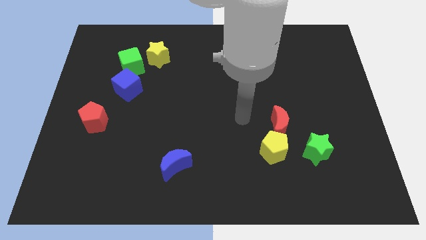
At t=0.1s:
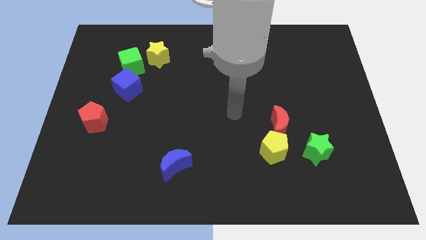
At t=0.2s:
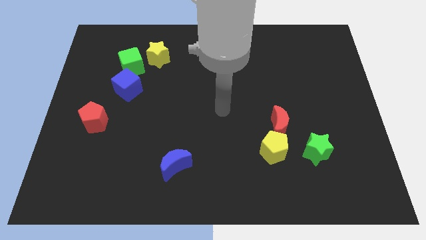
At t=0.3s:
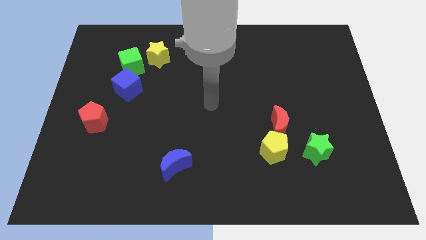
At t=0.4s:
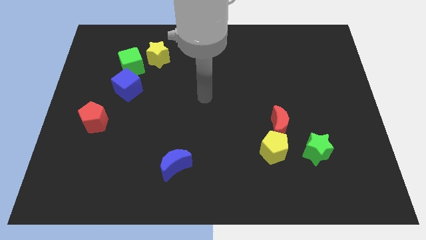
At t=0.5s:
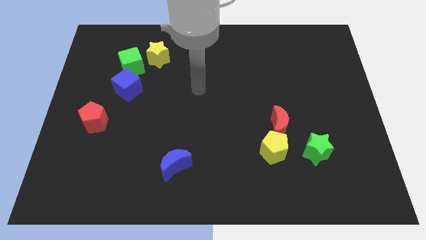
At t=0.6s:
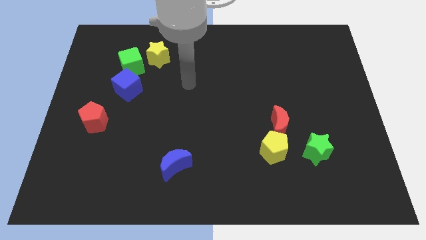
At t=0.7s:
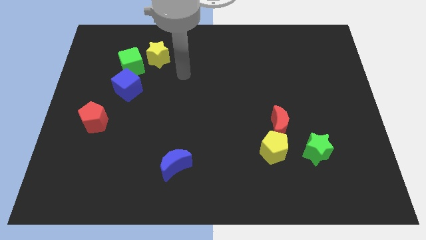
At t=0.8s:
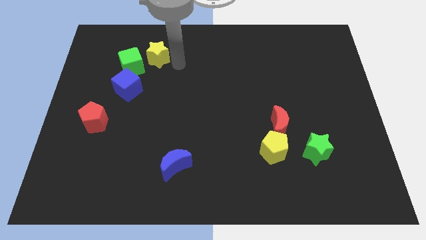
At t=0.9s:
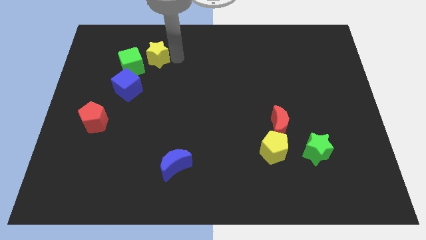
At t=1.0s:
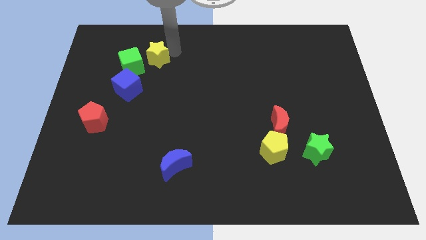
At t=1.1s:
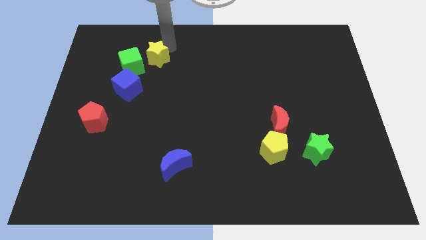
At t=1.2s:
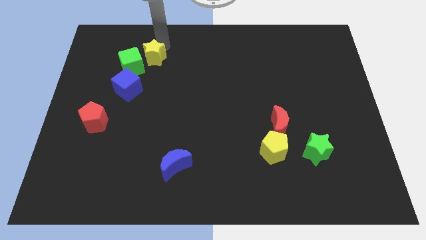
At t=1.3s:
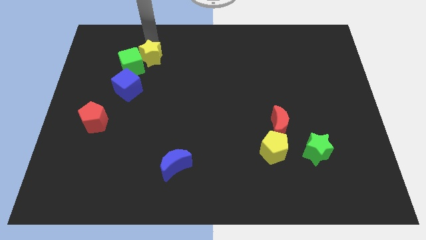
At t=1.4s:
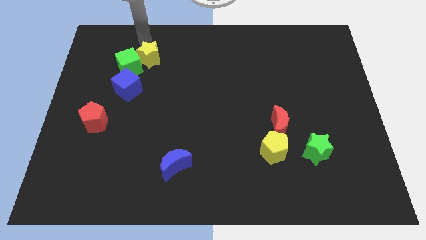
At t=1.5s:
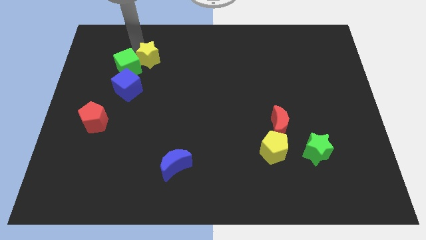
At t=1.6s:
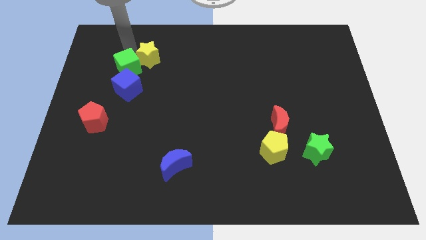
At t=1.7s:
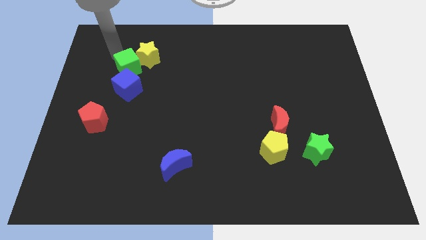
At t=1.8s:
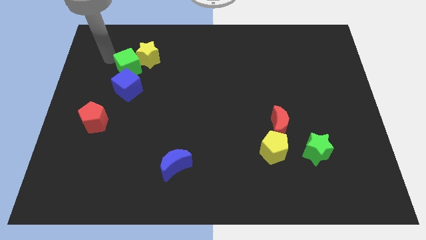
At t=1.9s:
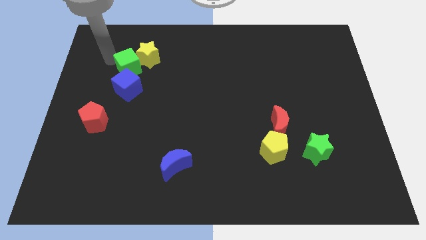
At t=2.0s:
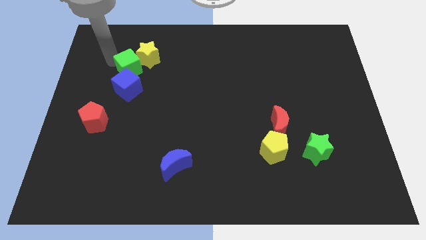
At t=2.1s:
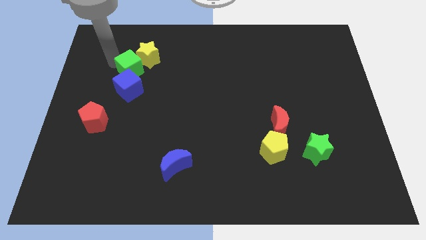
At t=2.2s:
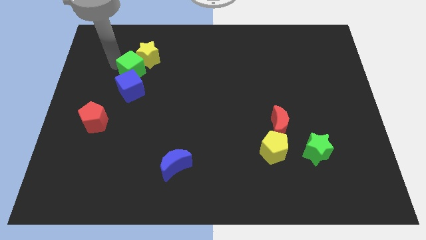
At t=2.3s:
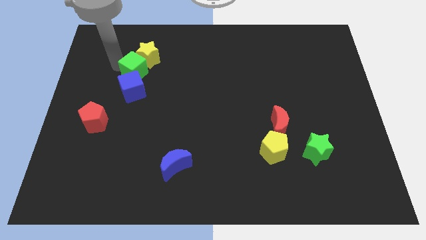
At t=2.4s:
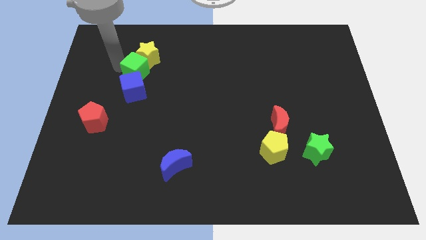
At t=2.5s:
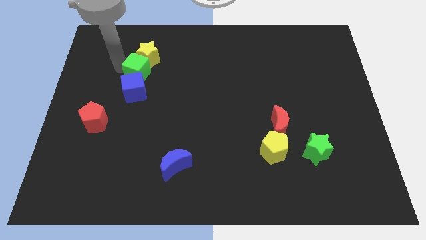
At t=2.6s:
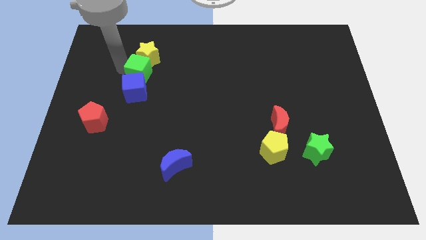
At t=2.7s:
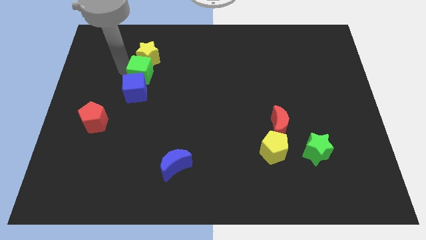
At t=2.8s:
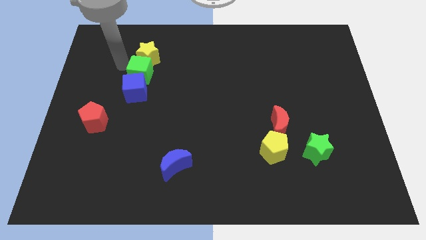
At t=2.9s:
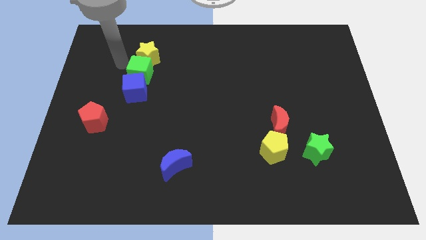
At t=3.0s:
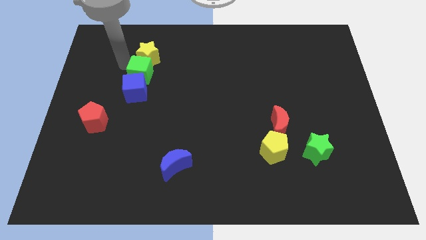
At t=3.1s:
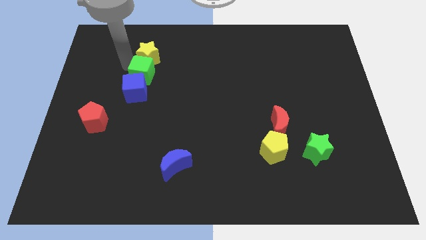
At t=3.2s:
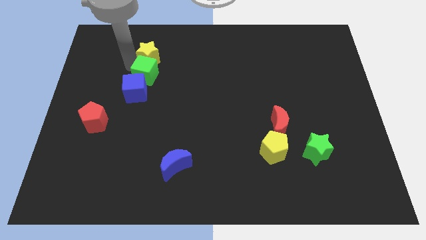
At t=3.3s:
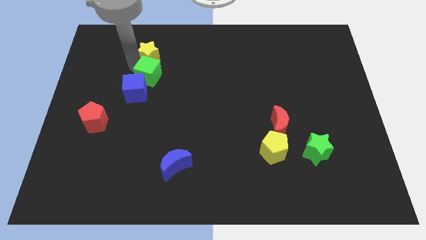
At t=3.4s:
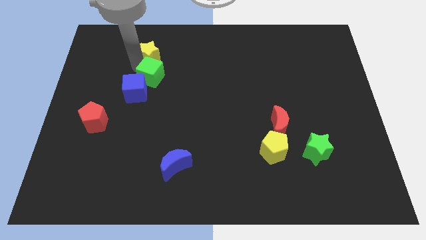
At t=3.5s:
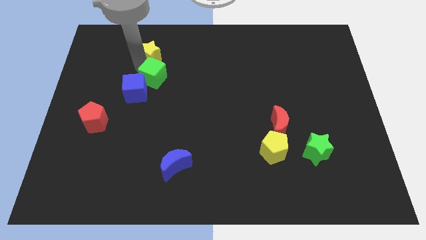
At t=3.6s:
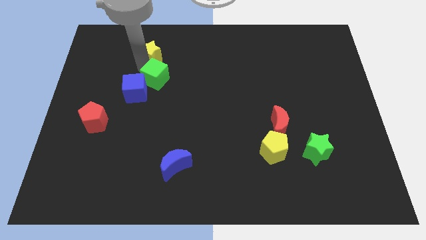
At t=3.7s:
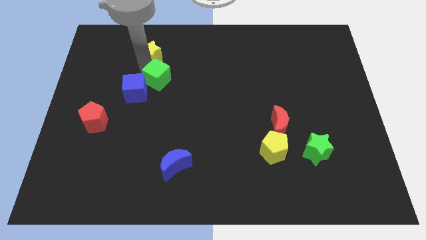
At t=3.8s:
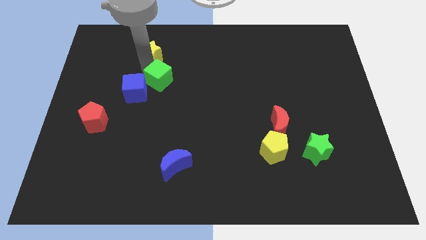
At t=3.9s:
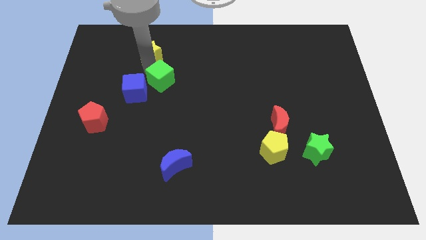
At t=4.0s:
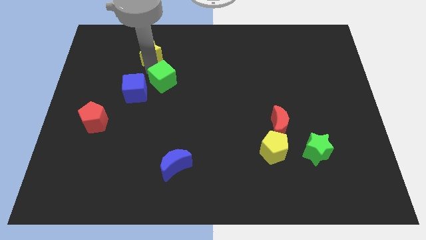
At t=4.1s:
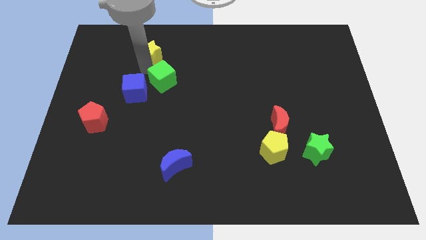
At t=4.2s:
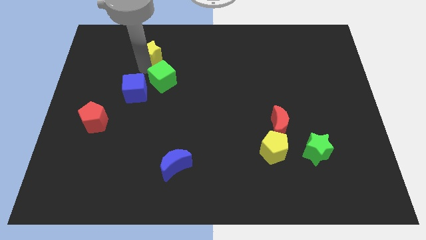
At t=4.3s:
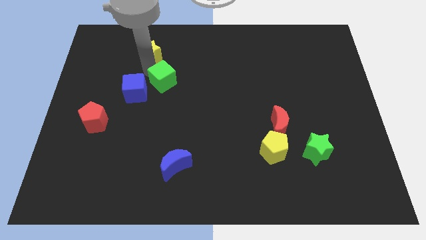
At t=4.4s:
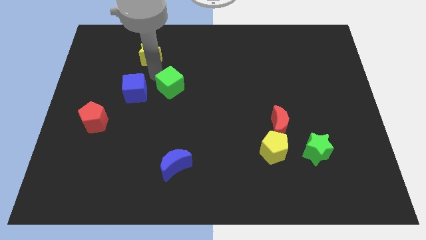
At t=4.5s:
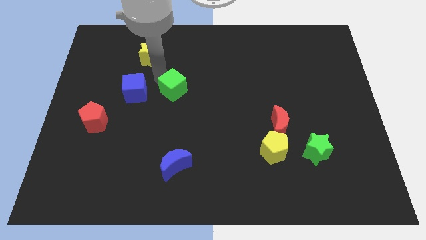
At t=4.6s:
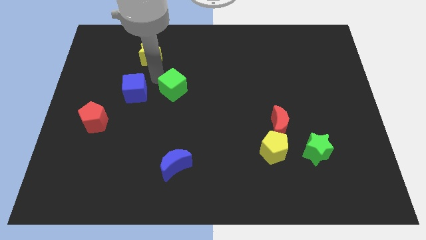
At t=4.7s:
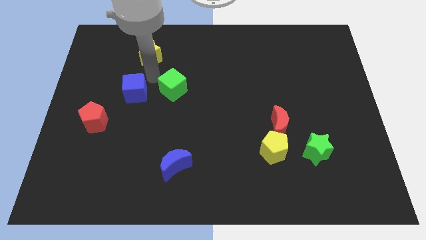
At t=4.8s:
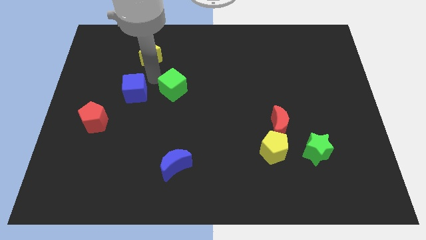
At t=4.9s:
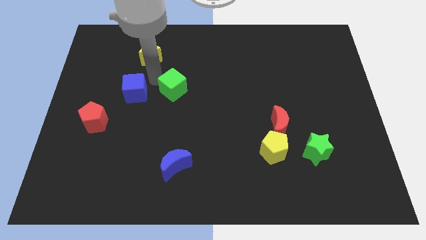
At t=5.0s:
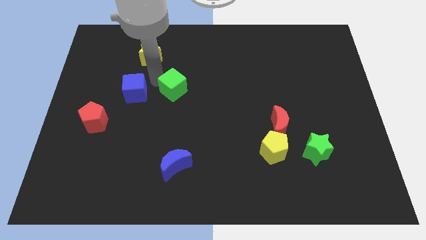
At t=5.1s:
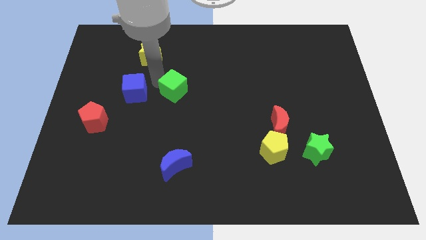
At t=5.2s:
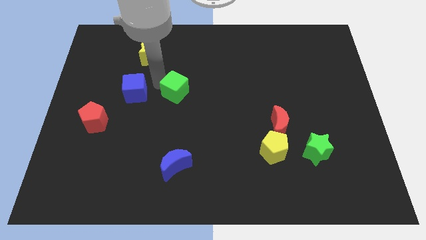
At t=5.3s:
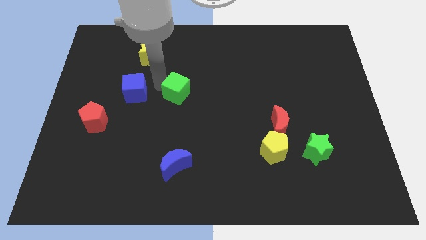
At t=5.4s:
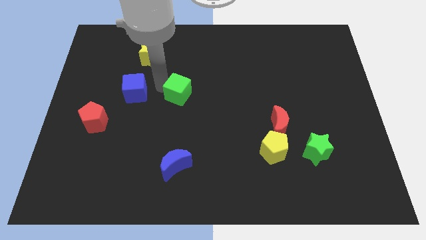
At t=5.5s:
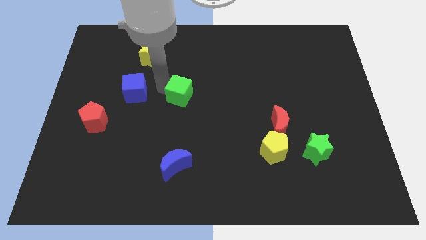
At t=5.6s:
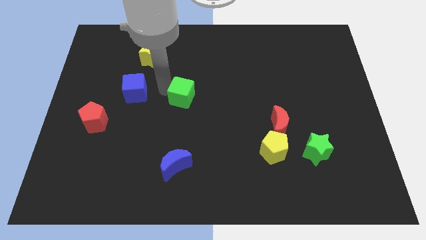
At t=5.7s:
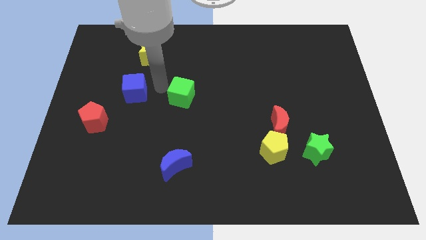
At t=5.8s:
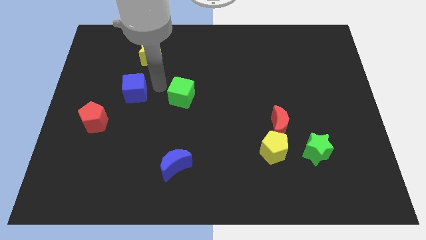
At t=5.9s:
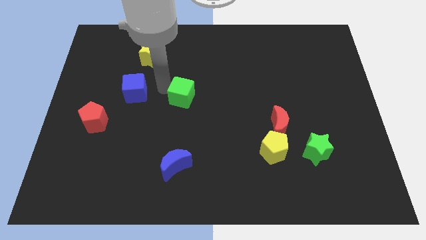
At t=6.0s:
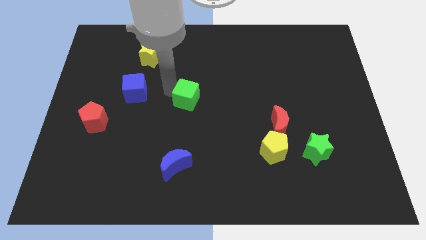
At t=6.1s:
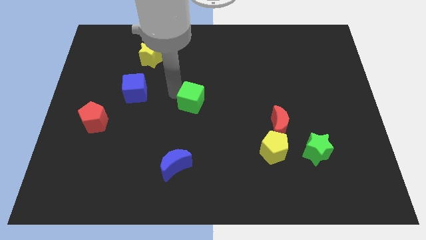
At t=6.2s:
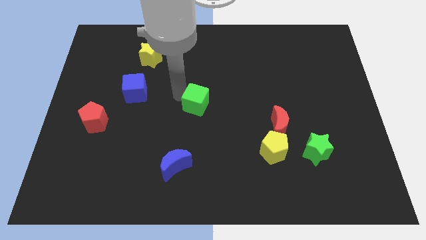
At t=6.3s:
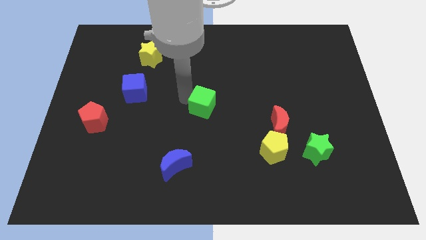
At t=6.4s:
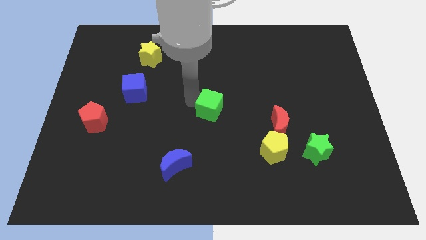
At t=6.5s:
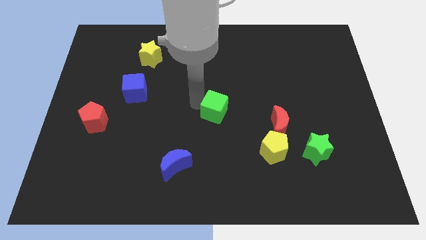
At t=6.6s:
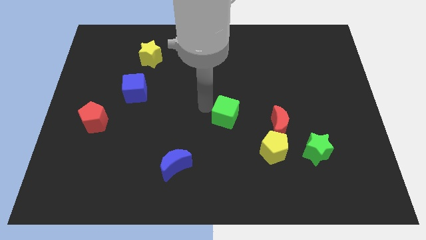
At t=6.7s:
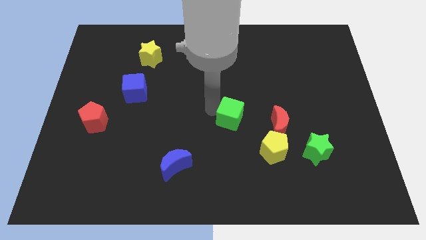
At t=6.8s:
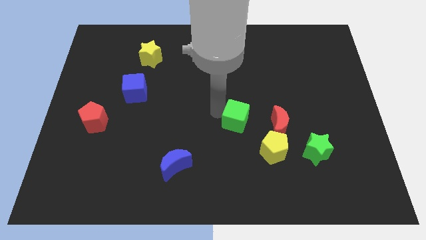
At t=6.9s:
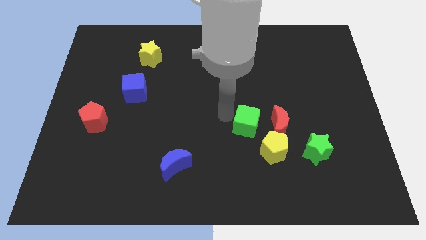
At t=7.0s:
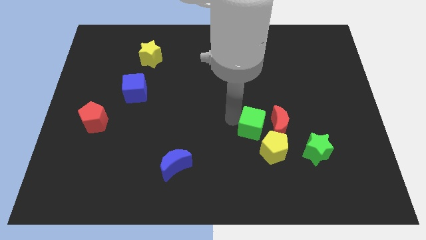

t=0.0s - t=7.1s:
slide the green cube close to the red moon

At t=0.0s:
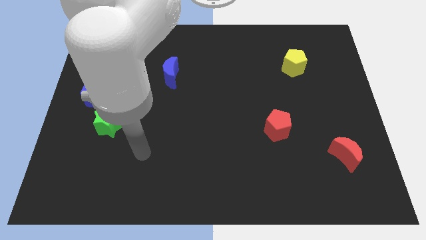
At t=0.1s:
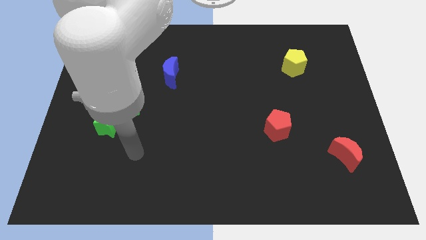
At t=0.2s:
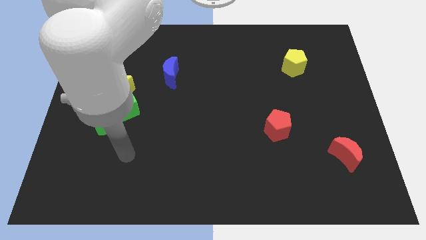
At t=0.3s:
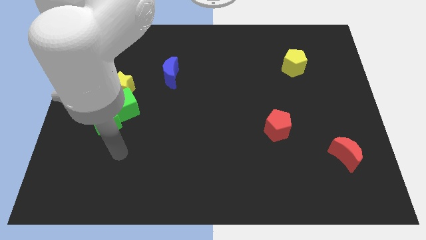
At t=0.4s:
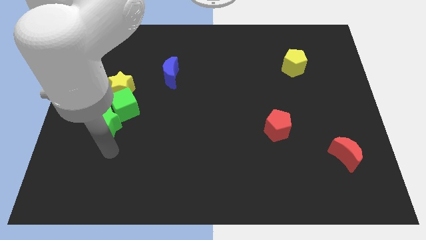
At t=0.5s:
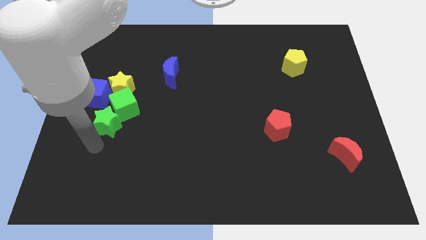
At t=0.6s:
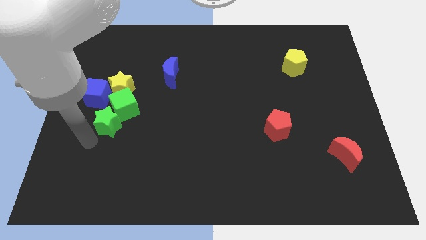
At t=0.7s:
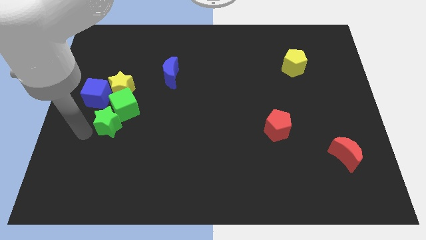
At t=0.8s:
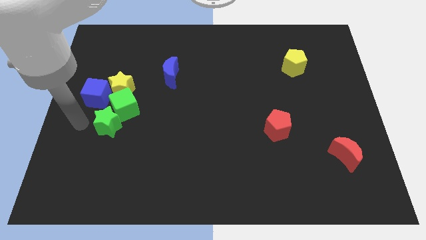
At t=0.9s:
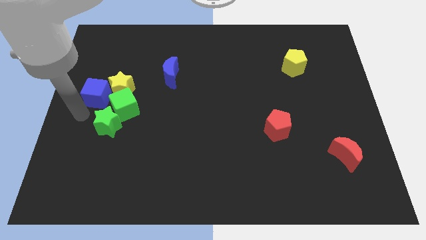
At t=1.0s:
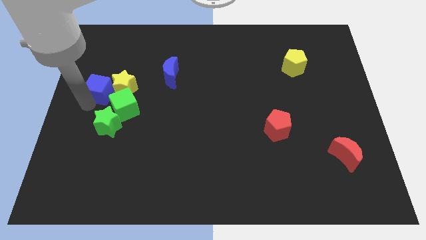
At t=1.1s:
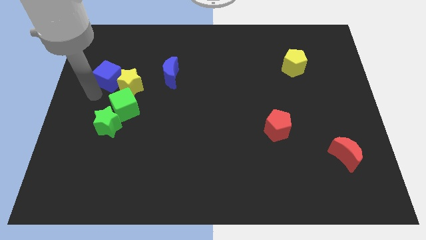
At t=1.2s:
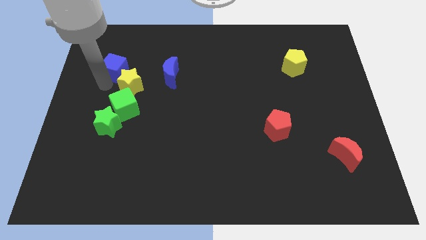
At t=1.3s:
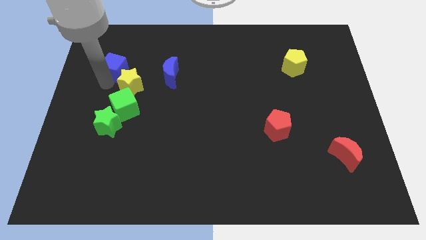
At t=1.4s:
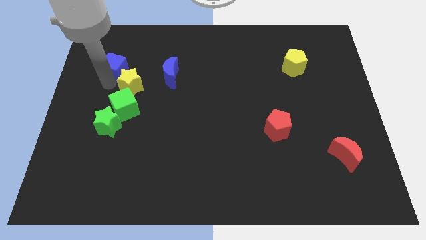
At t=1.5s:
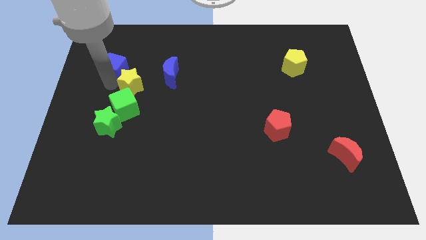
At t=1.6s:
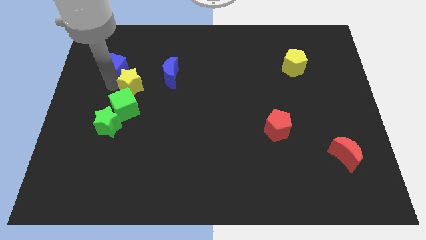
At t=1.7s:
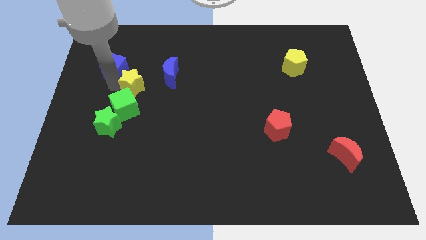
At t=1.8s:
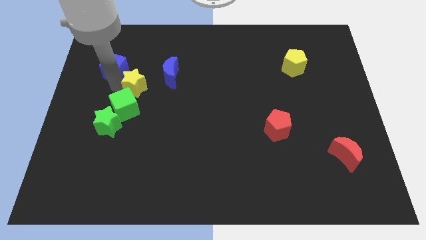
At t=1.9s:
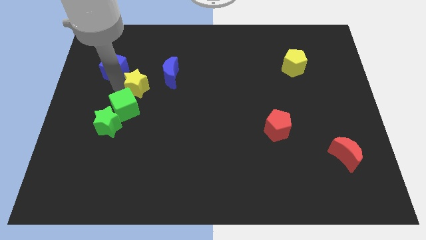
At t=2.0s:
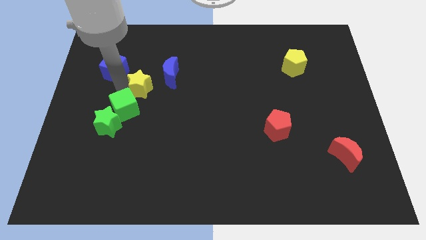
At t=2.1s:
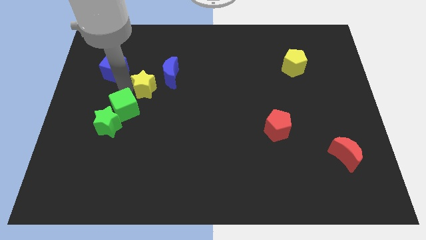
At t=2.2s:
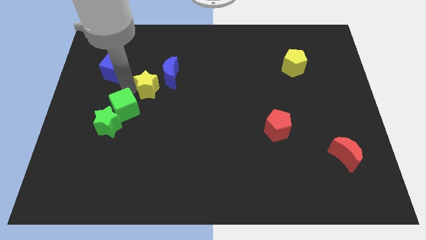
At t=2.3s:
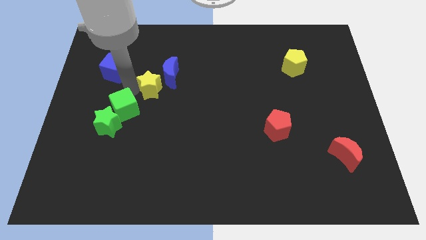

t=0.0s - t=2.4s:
slide the yellow star close to the blue moon
